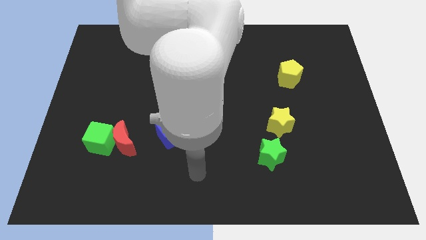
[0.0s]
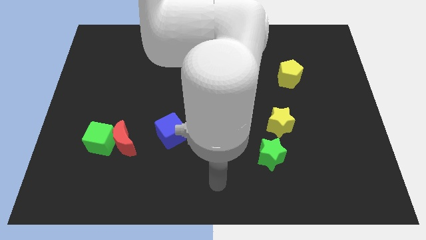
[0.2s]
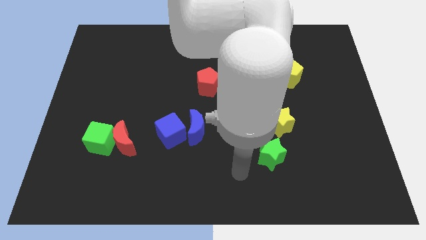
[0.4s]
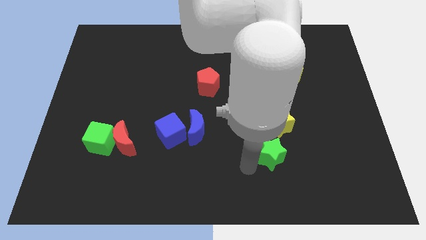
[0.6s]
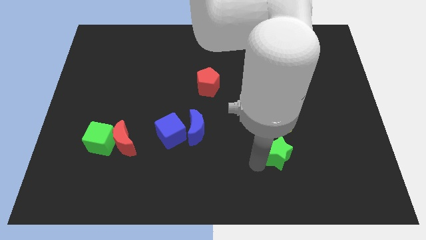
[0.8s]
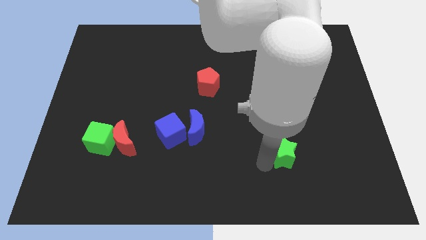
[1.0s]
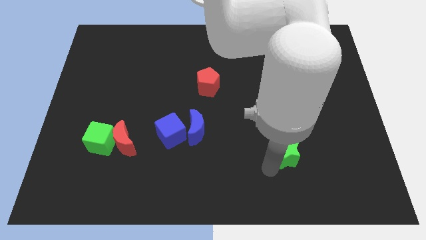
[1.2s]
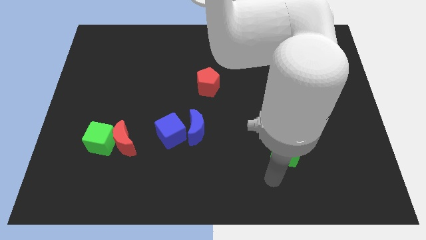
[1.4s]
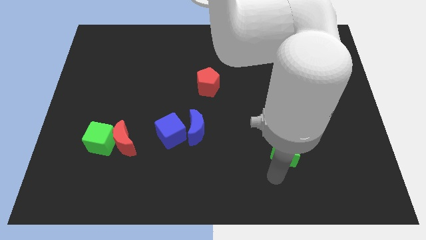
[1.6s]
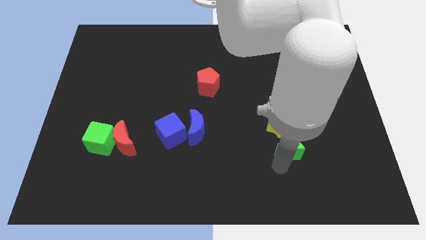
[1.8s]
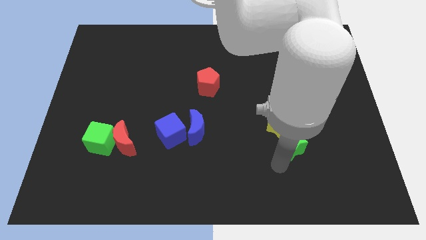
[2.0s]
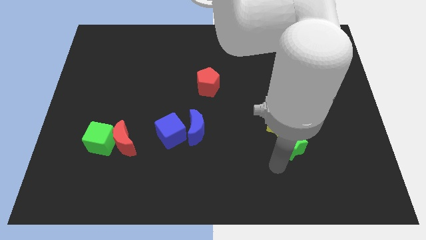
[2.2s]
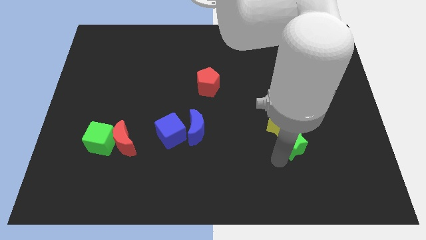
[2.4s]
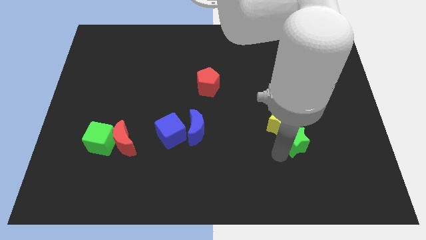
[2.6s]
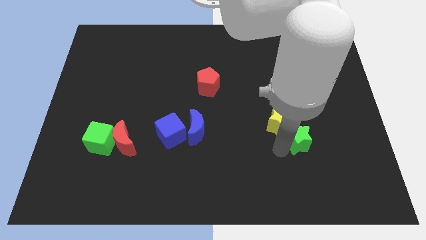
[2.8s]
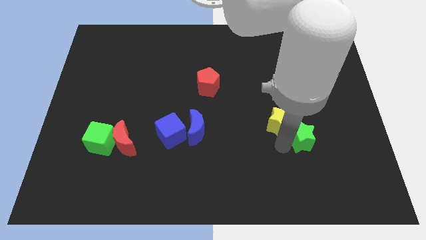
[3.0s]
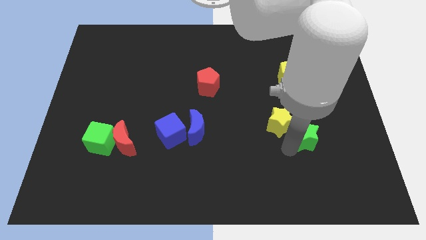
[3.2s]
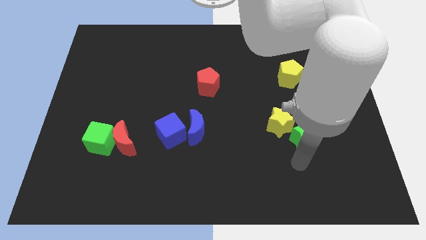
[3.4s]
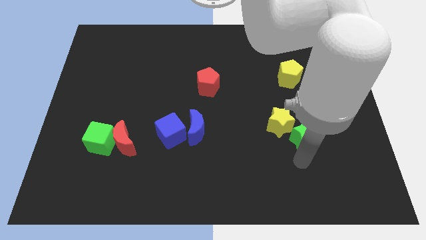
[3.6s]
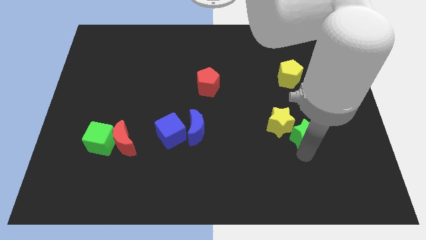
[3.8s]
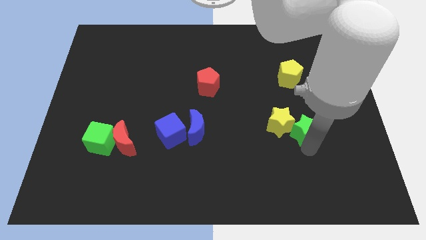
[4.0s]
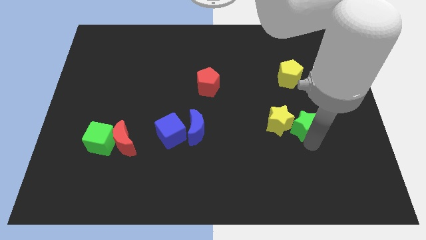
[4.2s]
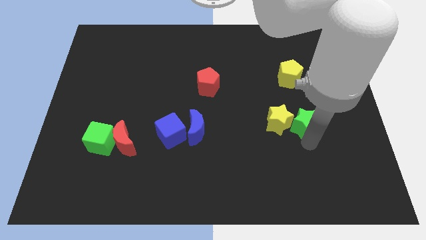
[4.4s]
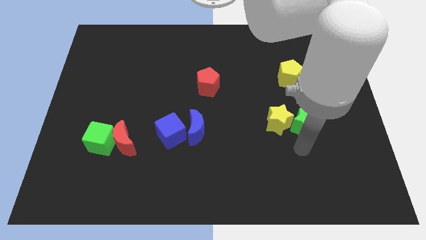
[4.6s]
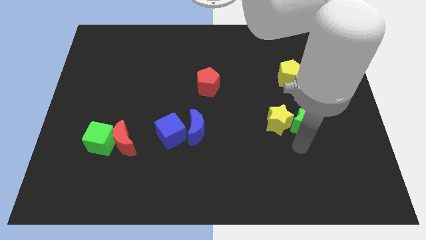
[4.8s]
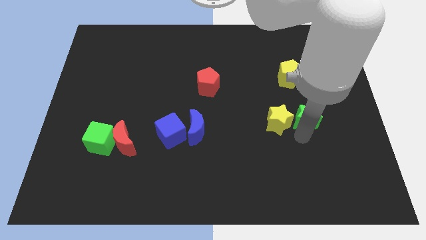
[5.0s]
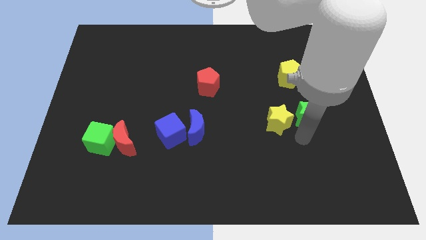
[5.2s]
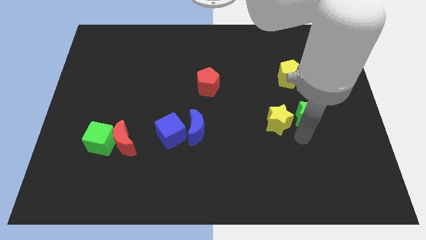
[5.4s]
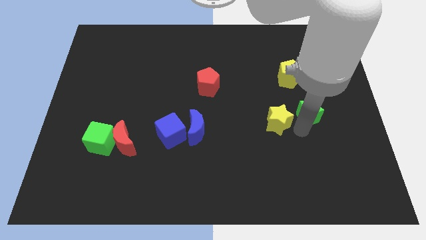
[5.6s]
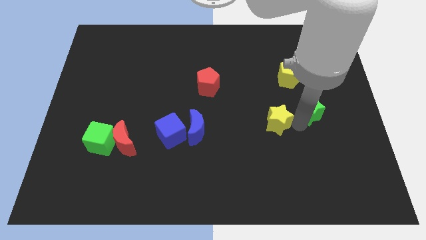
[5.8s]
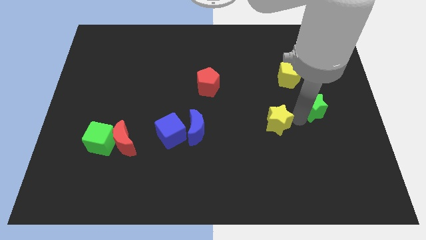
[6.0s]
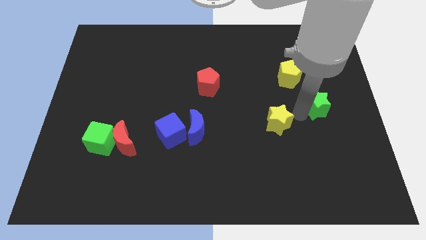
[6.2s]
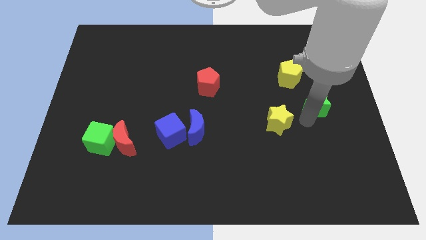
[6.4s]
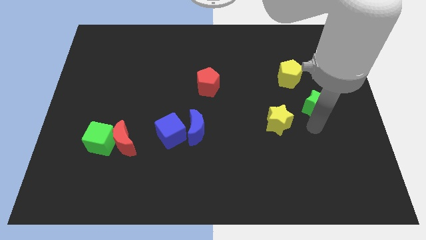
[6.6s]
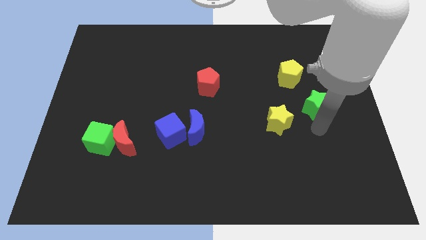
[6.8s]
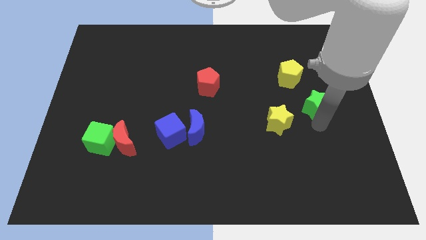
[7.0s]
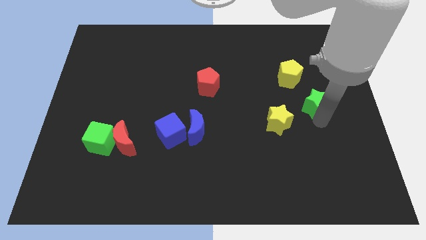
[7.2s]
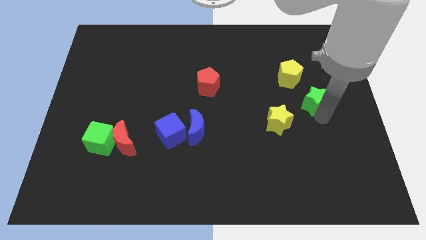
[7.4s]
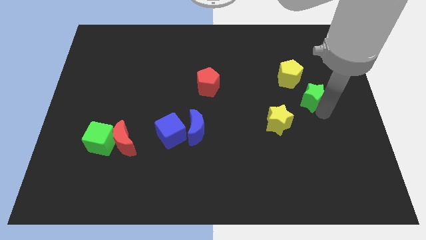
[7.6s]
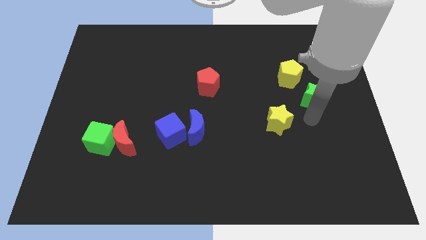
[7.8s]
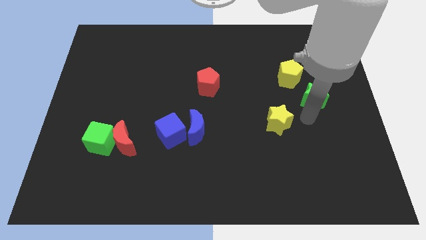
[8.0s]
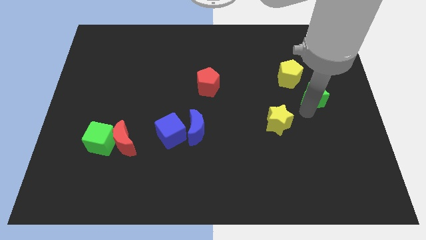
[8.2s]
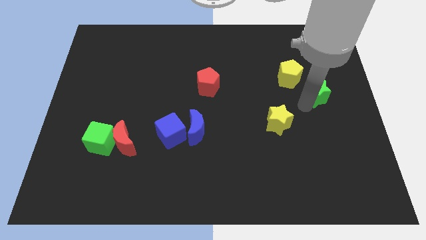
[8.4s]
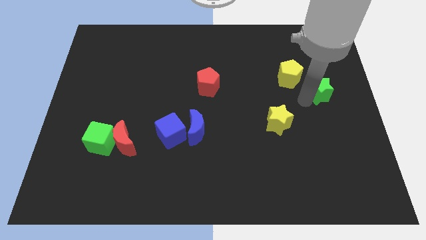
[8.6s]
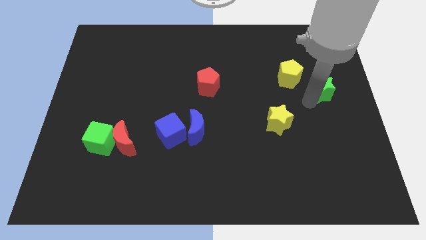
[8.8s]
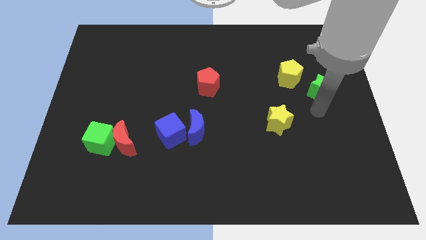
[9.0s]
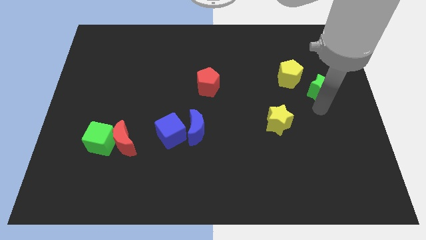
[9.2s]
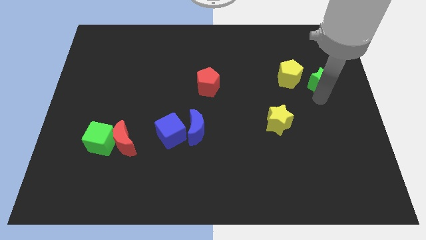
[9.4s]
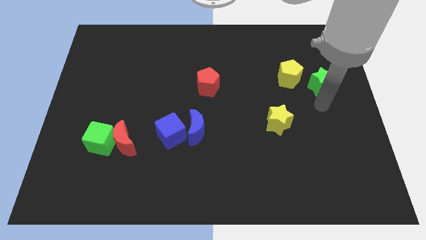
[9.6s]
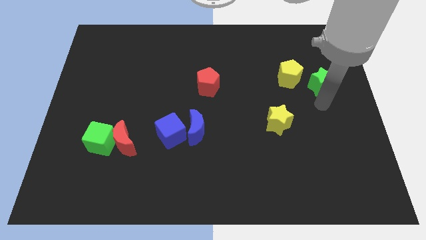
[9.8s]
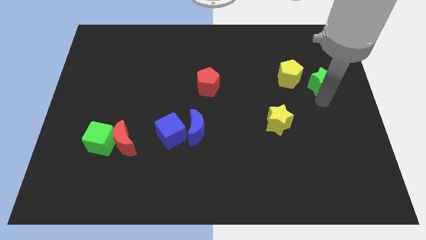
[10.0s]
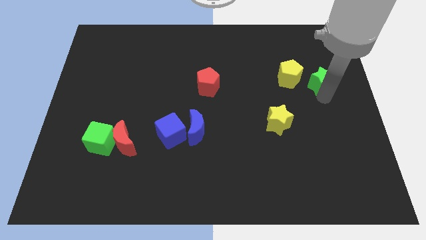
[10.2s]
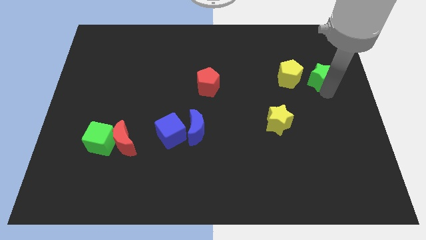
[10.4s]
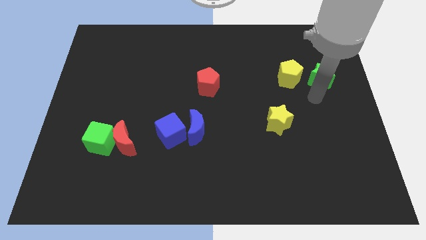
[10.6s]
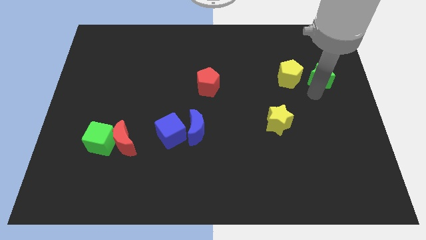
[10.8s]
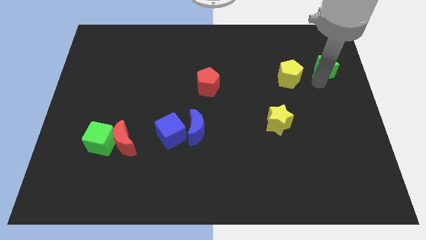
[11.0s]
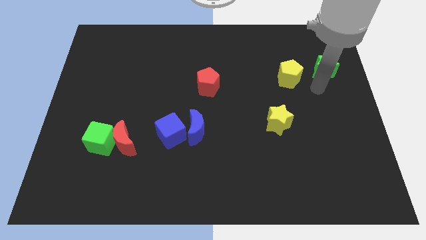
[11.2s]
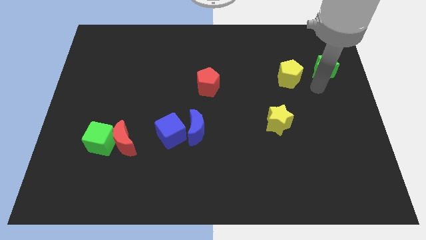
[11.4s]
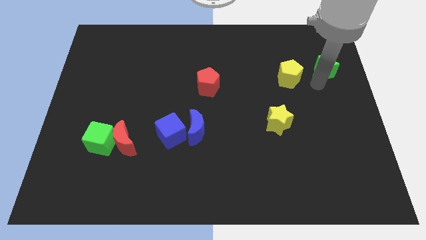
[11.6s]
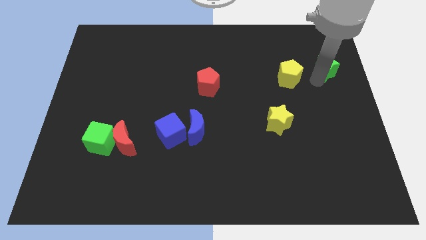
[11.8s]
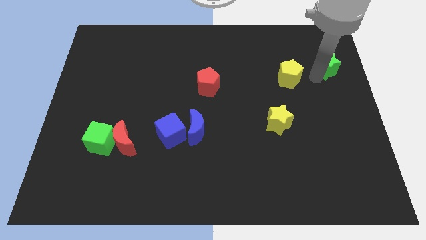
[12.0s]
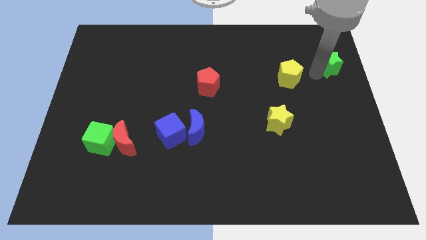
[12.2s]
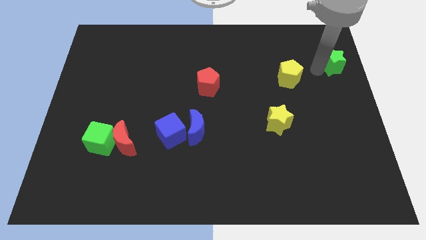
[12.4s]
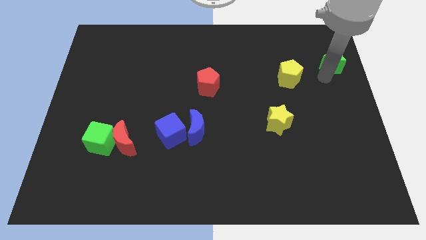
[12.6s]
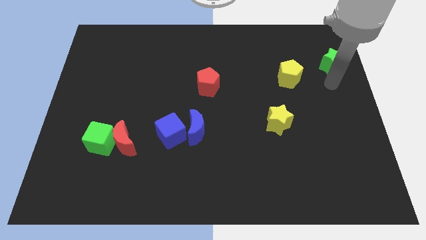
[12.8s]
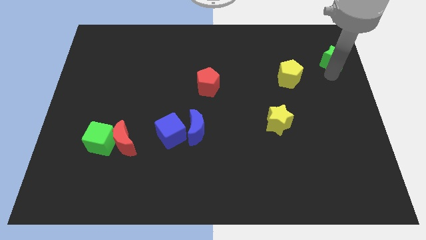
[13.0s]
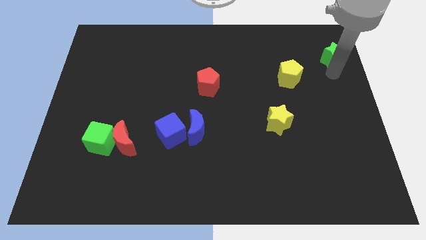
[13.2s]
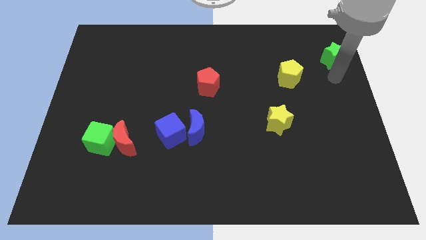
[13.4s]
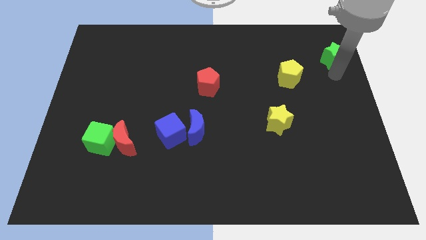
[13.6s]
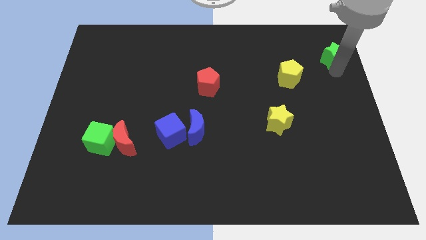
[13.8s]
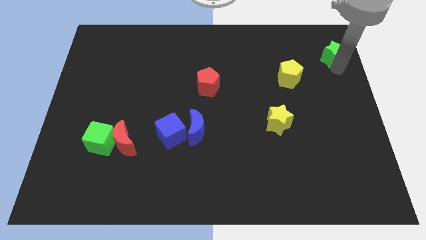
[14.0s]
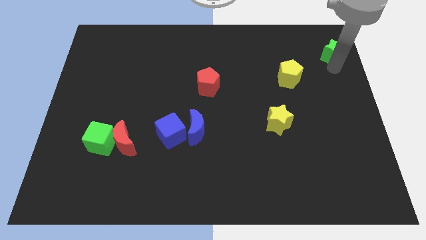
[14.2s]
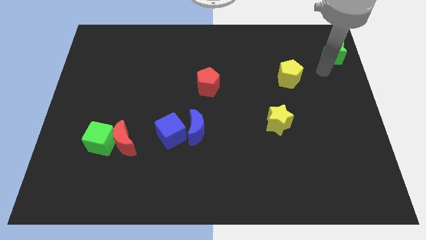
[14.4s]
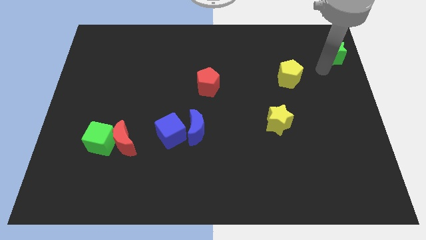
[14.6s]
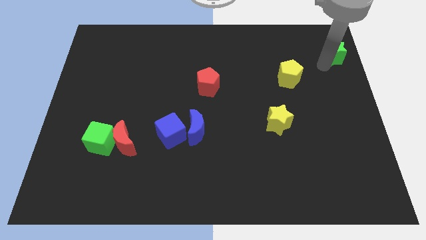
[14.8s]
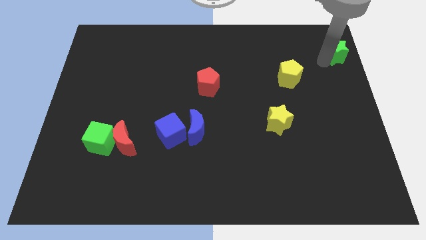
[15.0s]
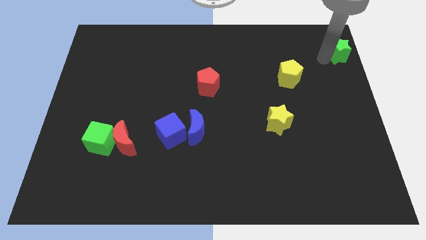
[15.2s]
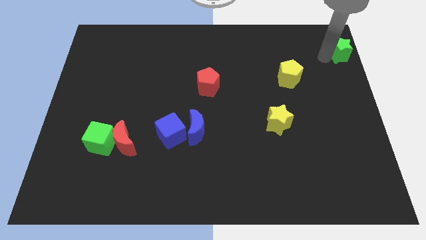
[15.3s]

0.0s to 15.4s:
push the green star to the top right of the board
